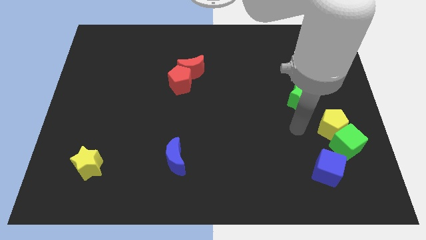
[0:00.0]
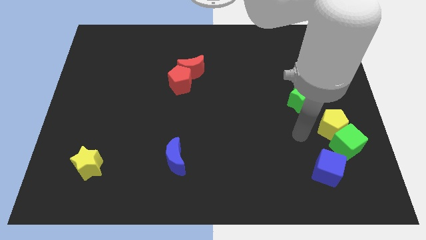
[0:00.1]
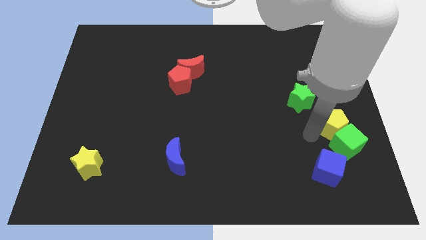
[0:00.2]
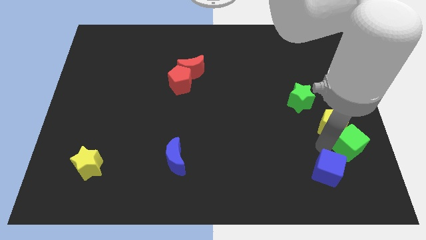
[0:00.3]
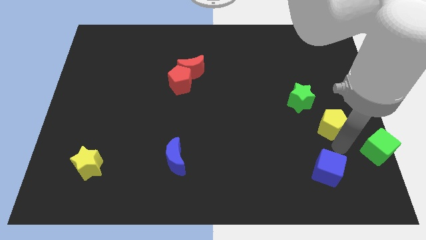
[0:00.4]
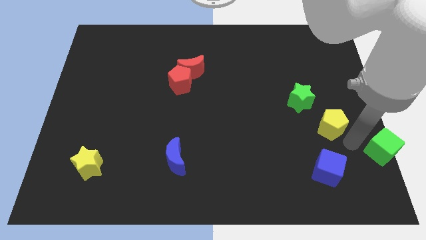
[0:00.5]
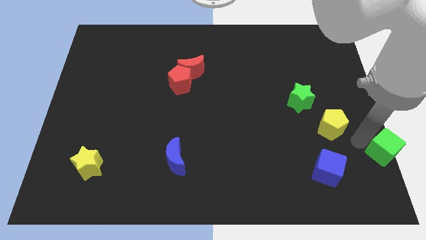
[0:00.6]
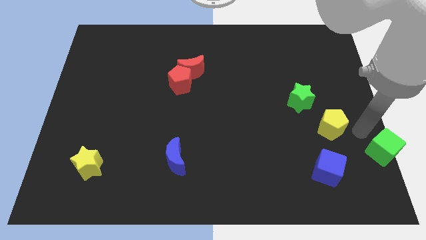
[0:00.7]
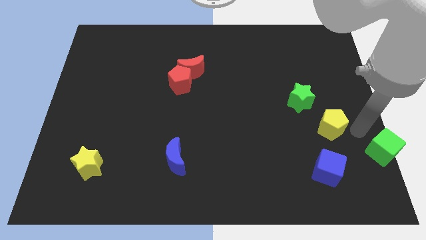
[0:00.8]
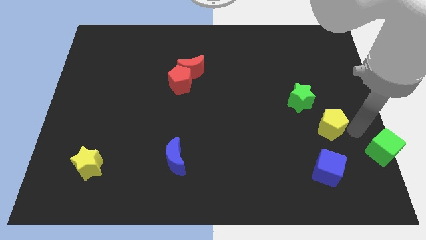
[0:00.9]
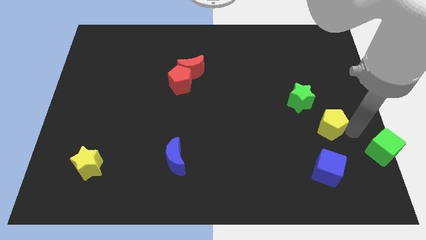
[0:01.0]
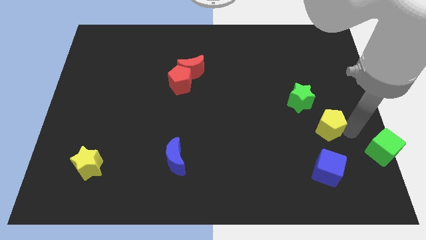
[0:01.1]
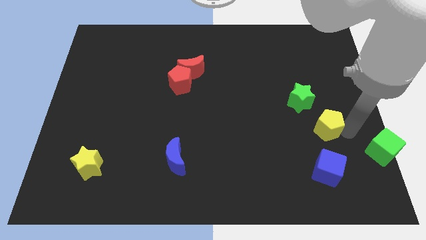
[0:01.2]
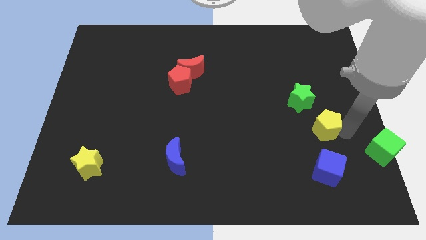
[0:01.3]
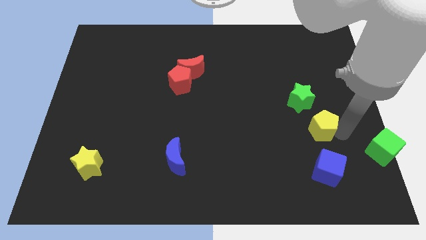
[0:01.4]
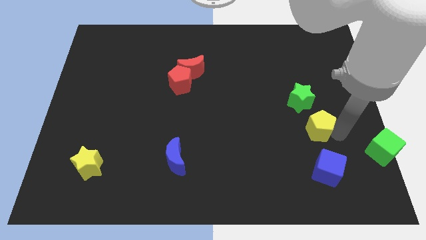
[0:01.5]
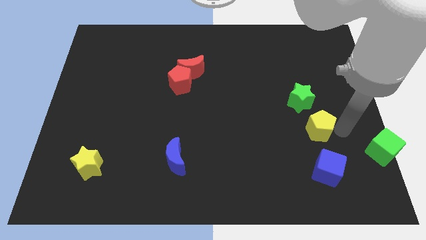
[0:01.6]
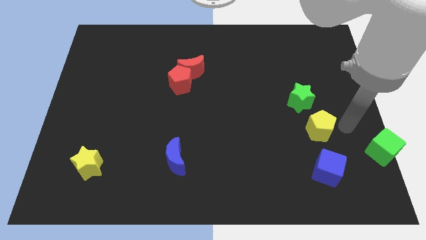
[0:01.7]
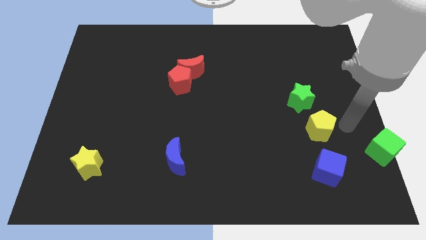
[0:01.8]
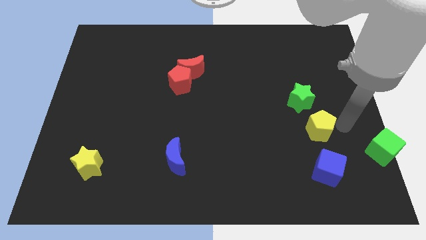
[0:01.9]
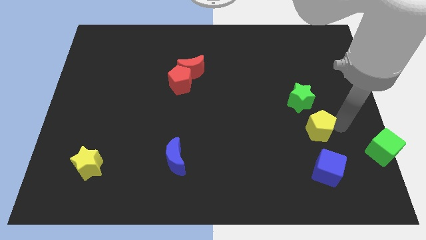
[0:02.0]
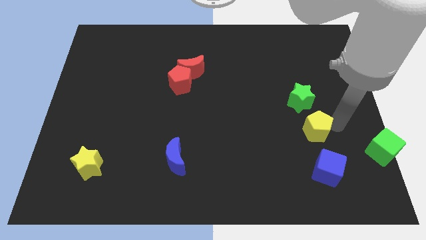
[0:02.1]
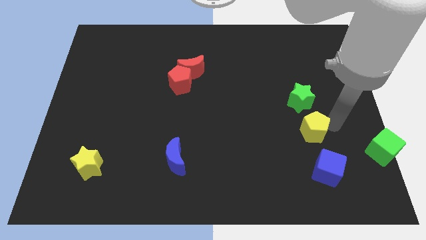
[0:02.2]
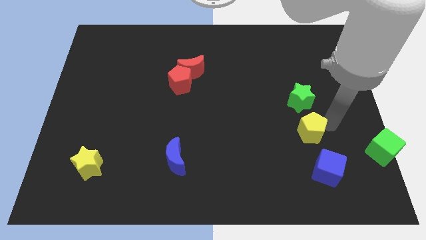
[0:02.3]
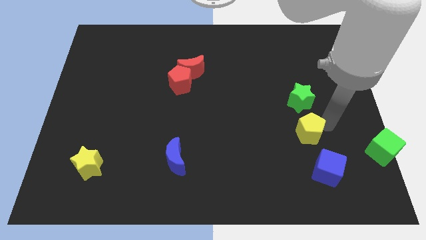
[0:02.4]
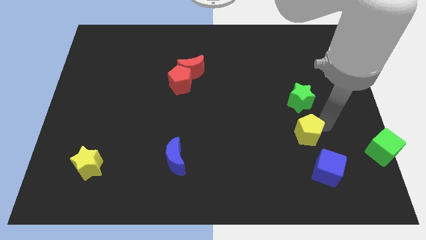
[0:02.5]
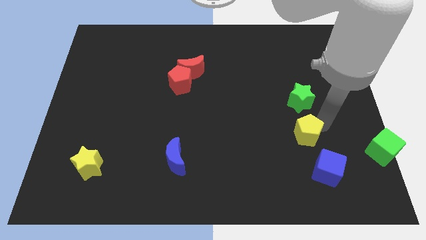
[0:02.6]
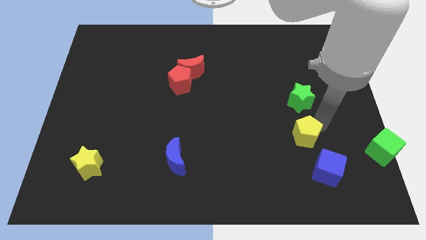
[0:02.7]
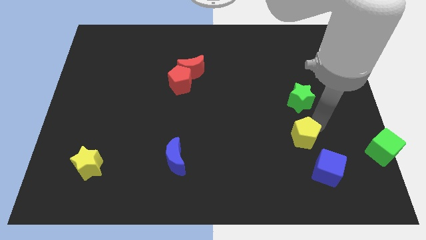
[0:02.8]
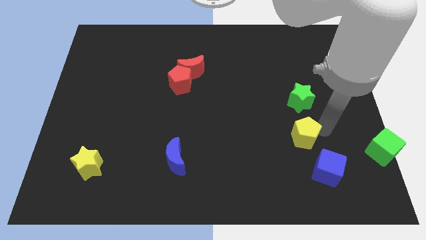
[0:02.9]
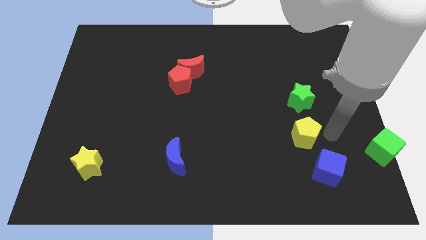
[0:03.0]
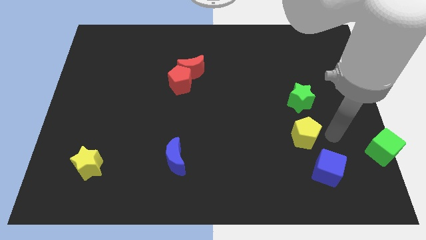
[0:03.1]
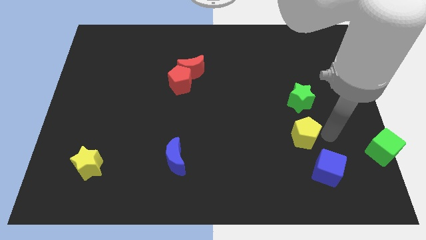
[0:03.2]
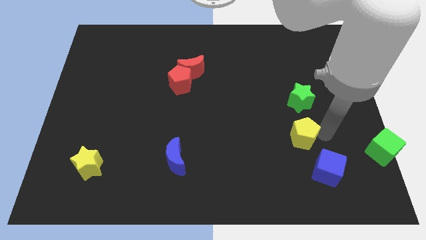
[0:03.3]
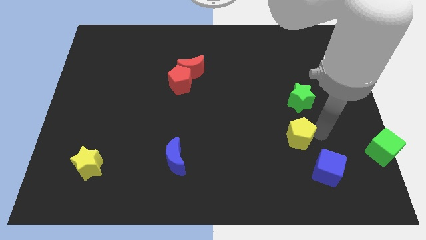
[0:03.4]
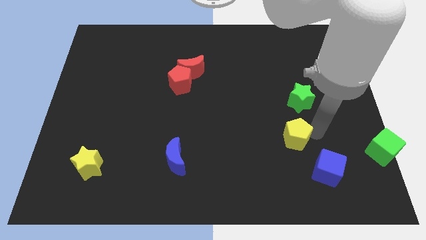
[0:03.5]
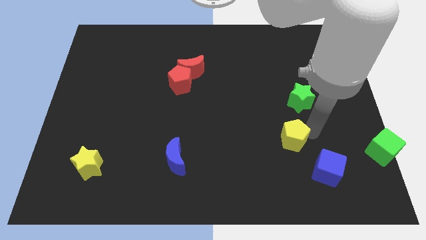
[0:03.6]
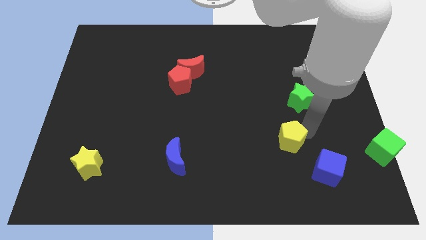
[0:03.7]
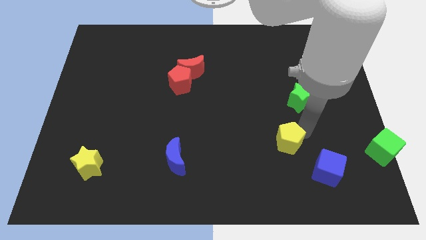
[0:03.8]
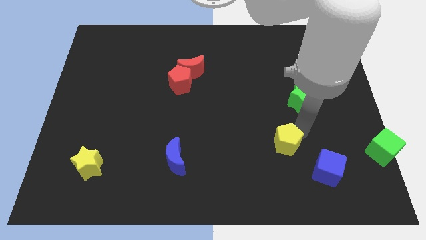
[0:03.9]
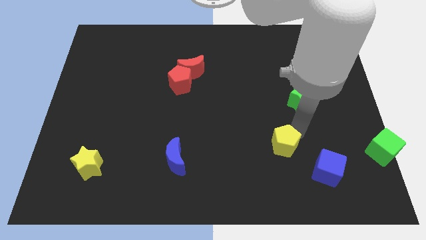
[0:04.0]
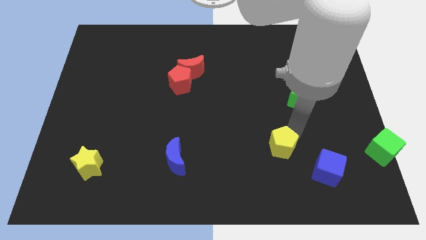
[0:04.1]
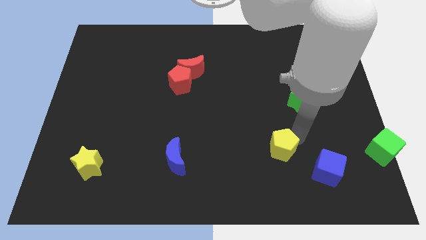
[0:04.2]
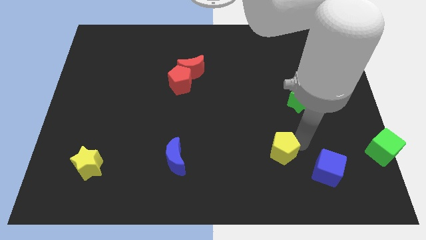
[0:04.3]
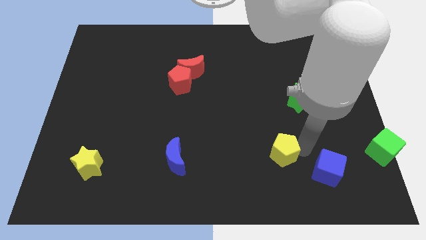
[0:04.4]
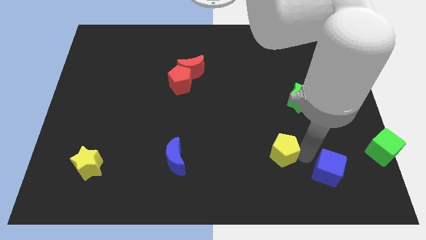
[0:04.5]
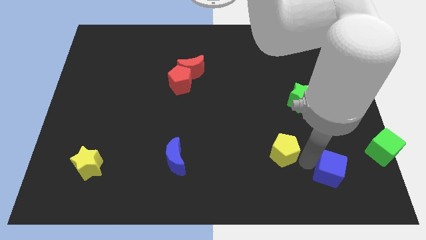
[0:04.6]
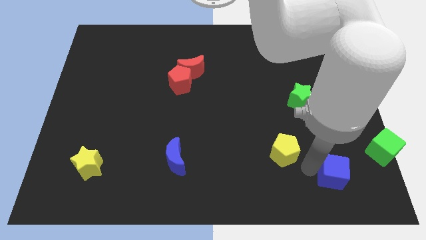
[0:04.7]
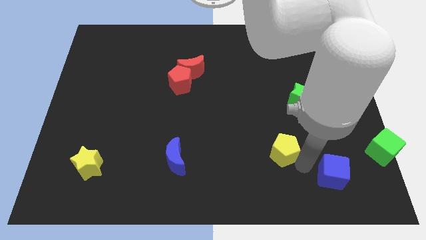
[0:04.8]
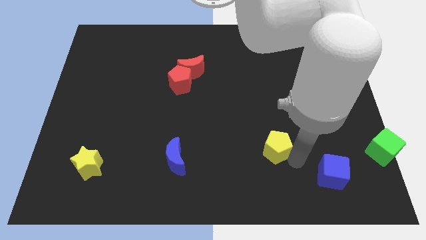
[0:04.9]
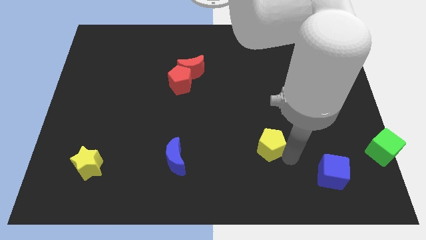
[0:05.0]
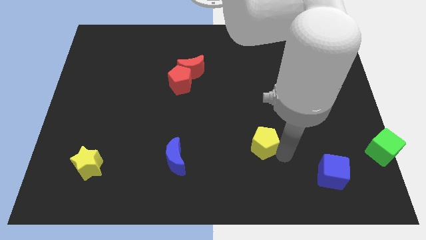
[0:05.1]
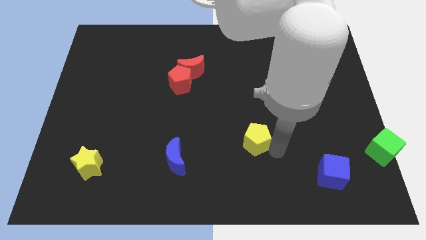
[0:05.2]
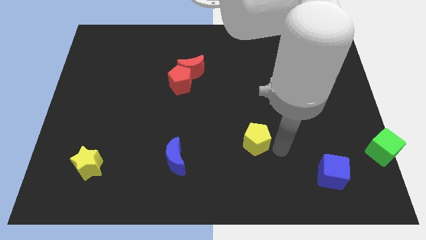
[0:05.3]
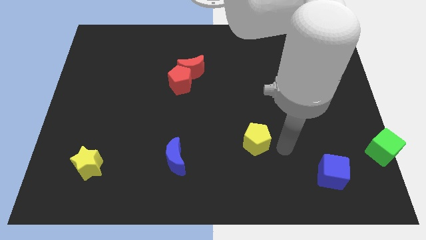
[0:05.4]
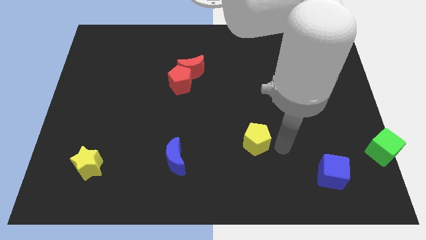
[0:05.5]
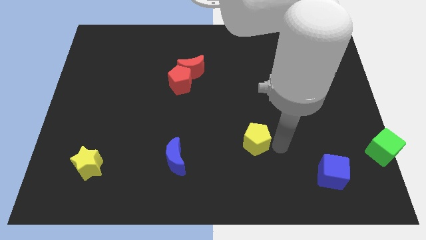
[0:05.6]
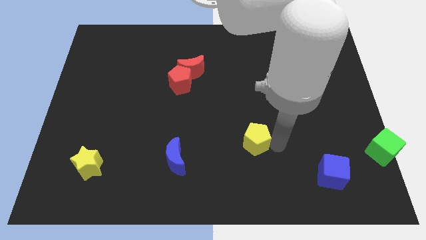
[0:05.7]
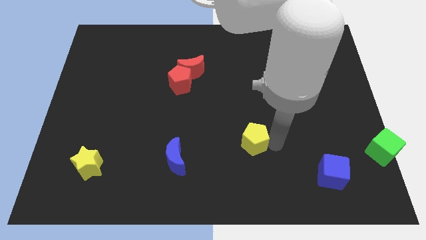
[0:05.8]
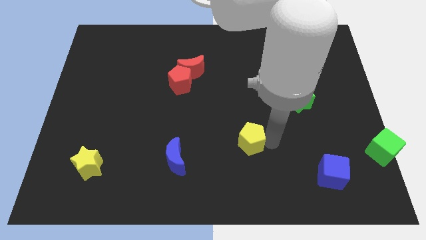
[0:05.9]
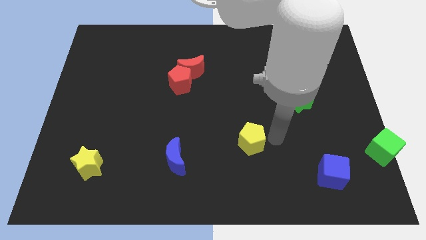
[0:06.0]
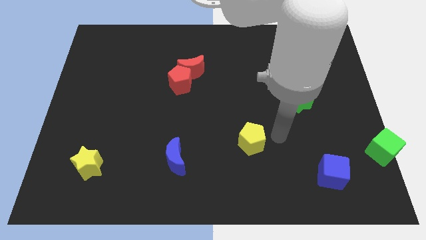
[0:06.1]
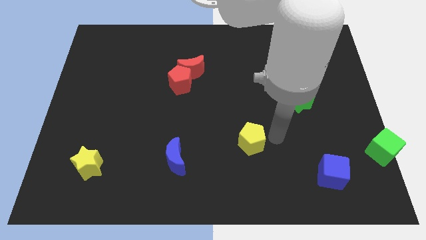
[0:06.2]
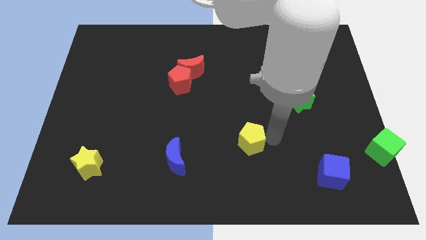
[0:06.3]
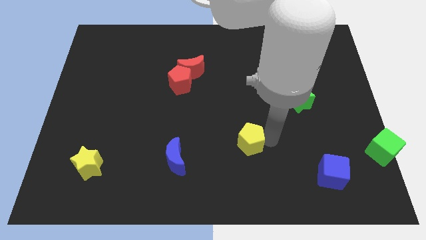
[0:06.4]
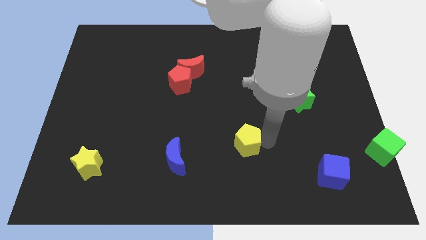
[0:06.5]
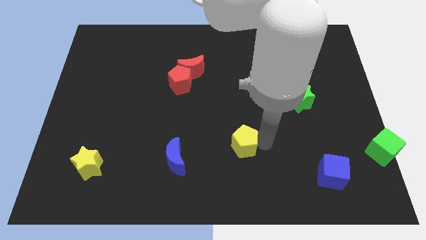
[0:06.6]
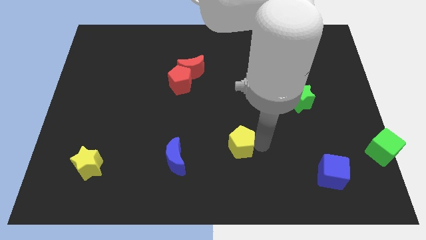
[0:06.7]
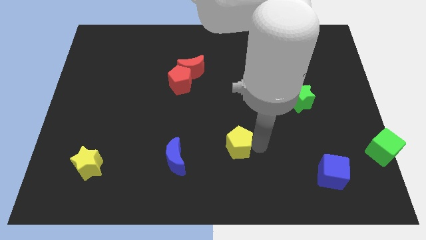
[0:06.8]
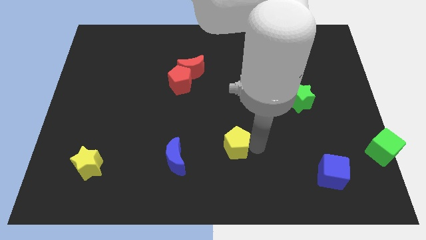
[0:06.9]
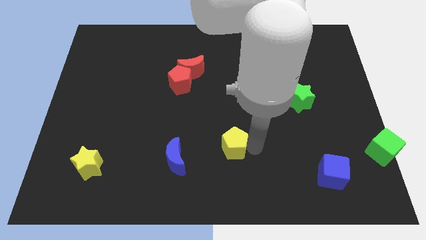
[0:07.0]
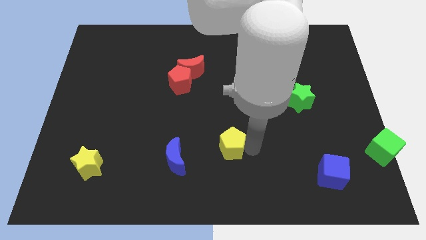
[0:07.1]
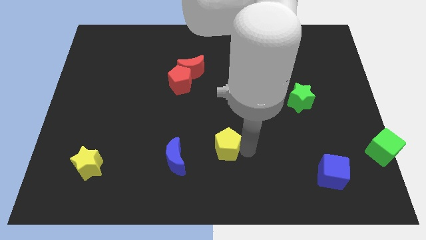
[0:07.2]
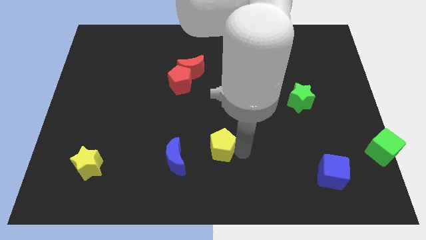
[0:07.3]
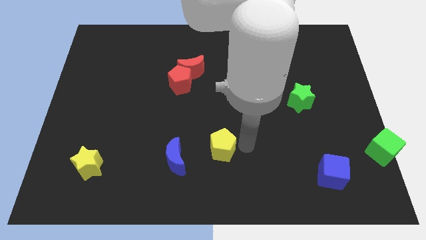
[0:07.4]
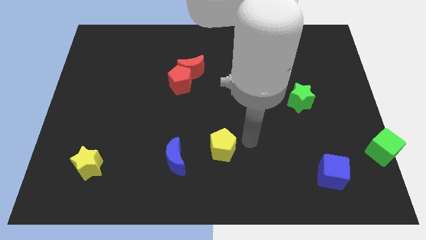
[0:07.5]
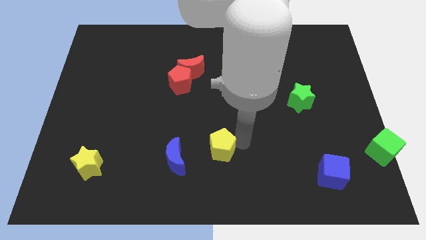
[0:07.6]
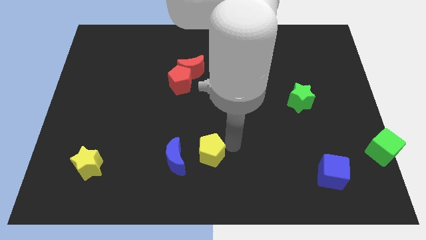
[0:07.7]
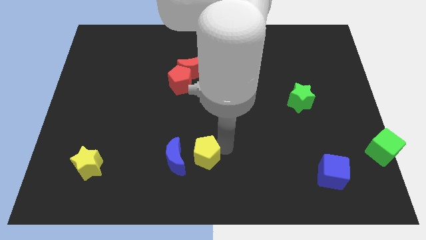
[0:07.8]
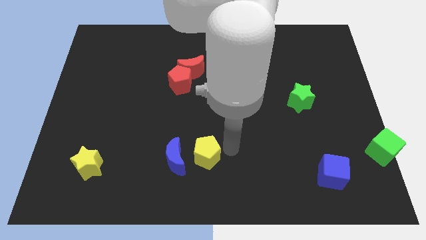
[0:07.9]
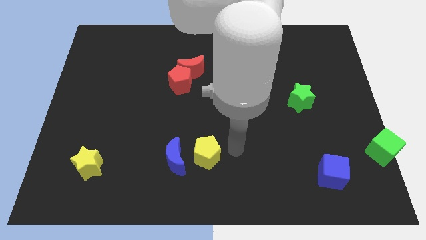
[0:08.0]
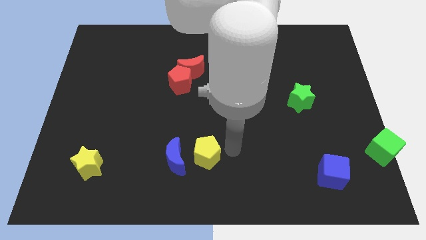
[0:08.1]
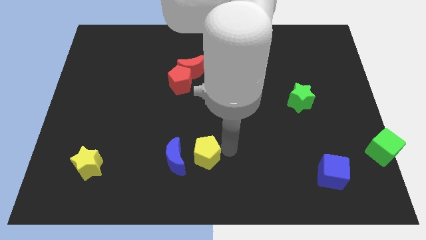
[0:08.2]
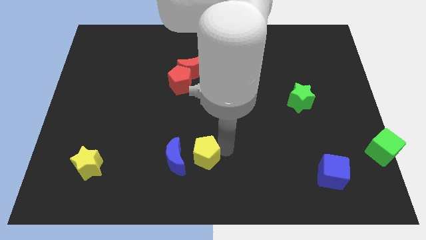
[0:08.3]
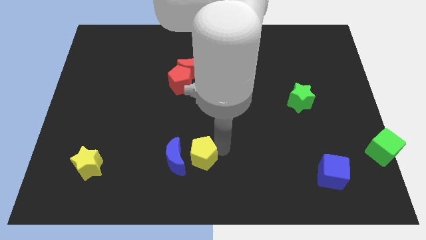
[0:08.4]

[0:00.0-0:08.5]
move the yellow pentagon next to the blue moon
